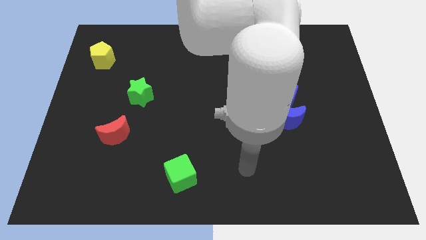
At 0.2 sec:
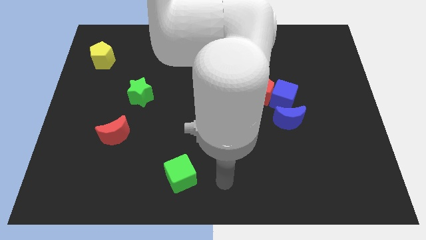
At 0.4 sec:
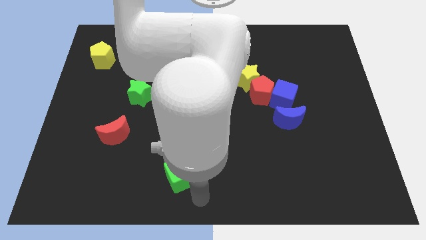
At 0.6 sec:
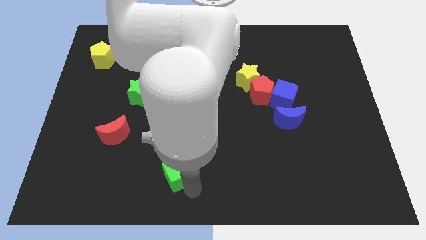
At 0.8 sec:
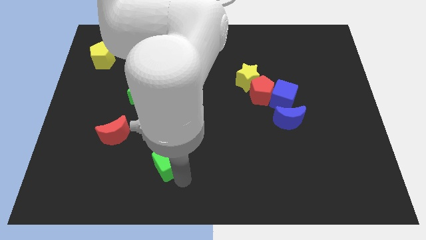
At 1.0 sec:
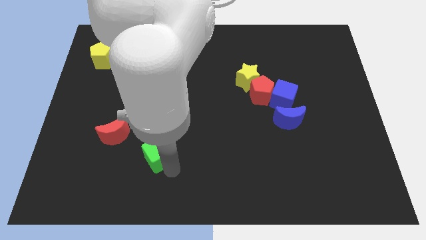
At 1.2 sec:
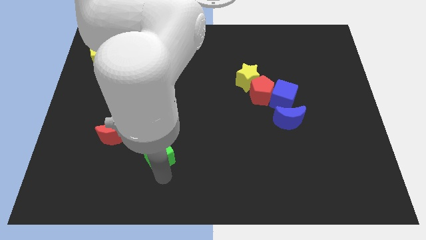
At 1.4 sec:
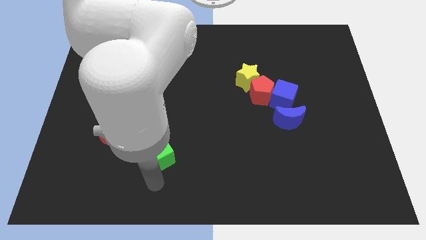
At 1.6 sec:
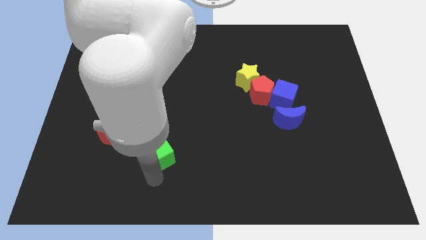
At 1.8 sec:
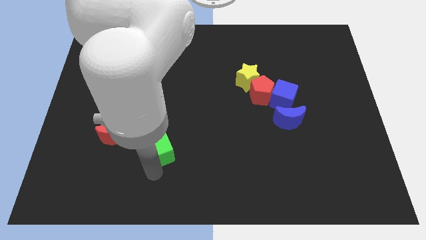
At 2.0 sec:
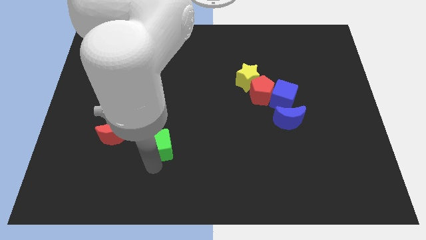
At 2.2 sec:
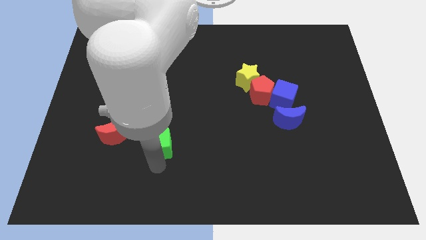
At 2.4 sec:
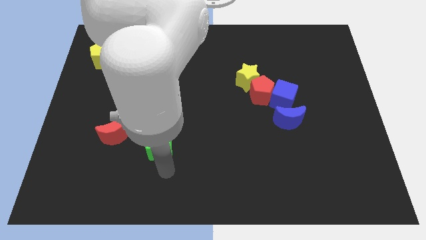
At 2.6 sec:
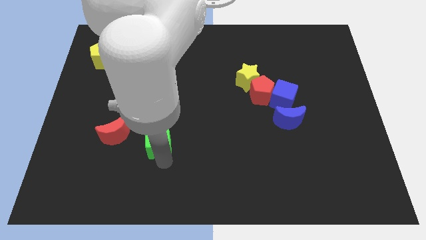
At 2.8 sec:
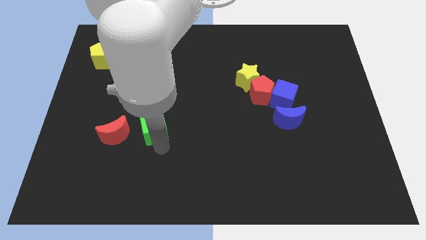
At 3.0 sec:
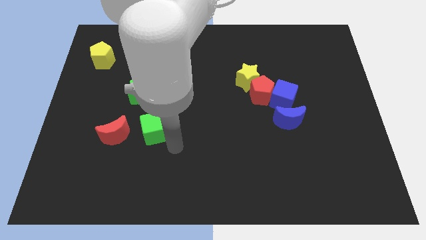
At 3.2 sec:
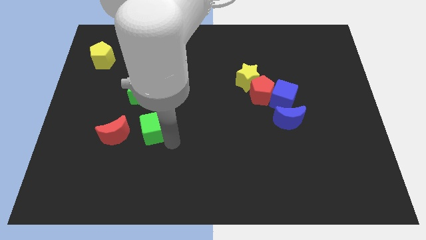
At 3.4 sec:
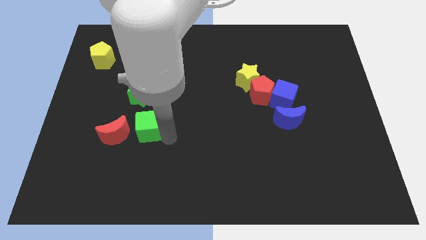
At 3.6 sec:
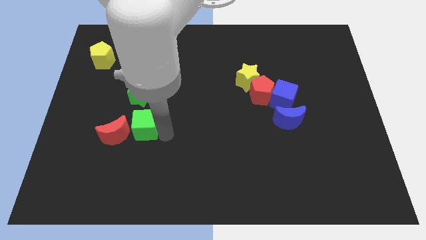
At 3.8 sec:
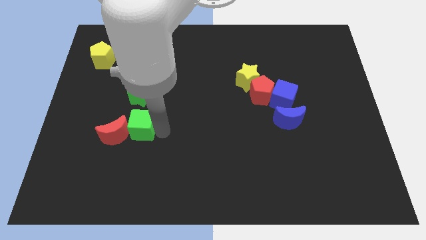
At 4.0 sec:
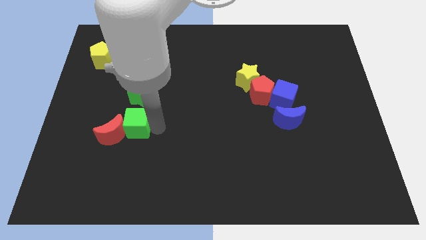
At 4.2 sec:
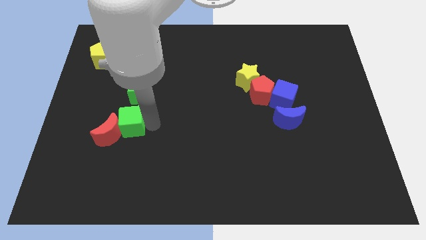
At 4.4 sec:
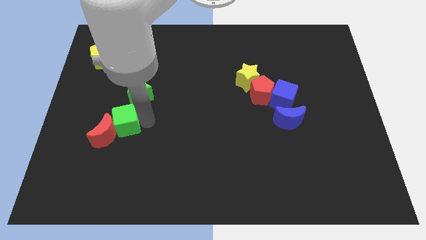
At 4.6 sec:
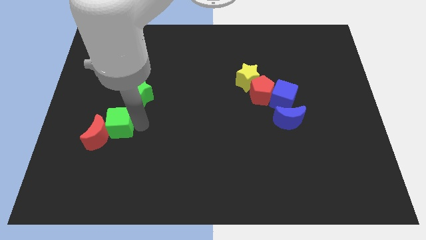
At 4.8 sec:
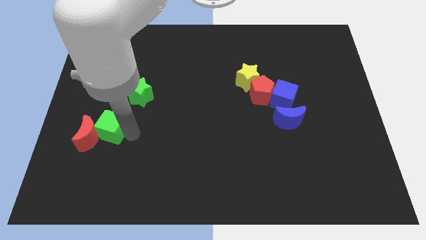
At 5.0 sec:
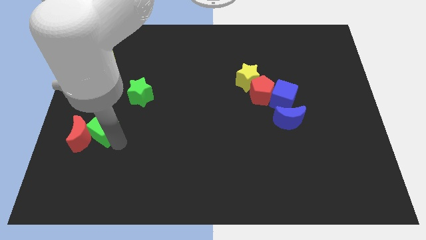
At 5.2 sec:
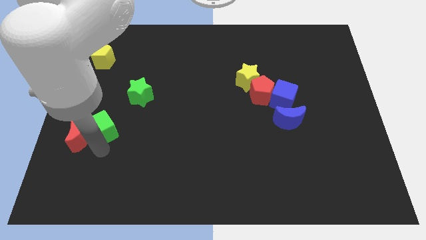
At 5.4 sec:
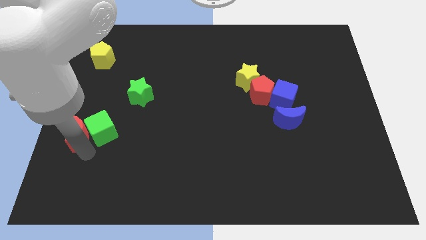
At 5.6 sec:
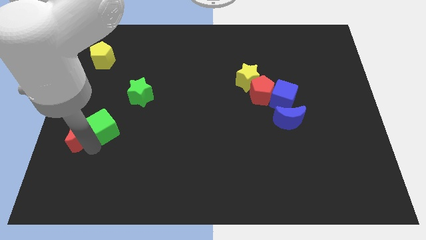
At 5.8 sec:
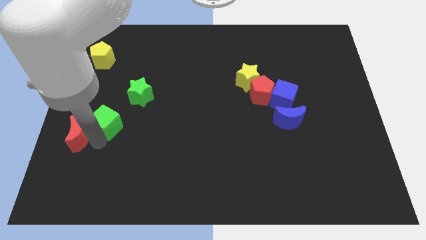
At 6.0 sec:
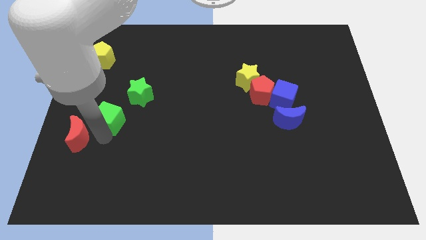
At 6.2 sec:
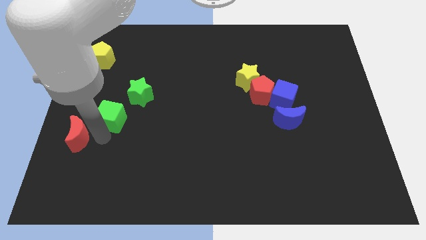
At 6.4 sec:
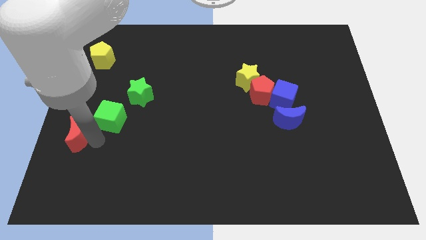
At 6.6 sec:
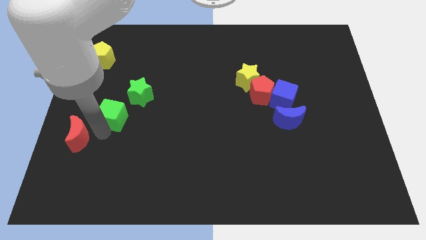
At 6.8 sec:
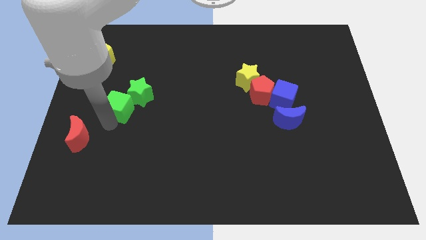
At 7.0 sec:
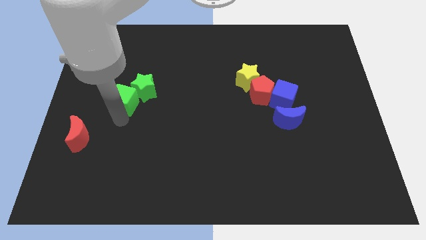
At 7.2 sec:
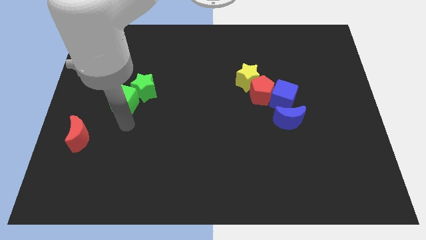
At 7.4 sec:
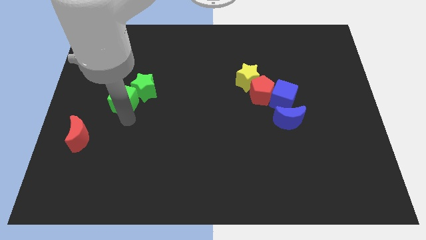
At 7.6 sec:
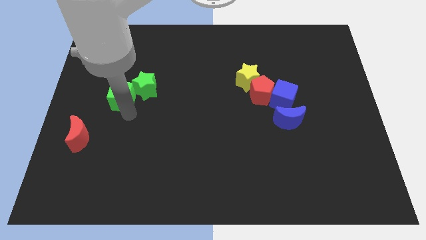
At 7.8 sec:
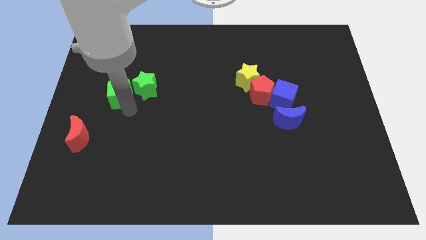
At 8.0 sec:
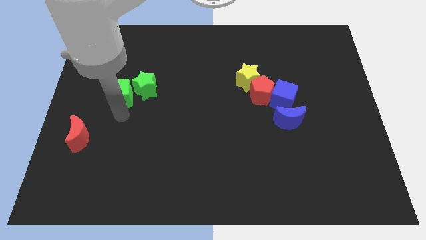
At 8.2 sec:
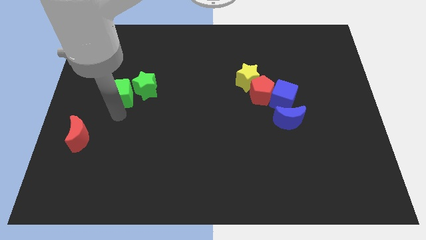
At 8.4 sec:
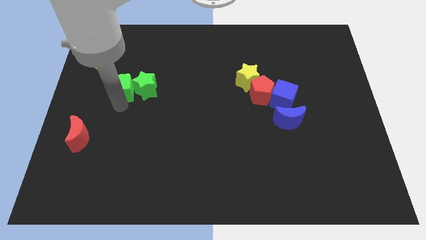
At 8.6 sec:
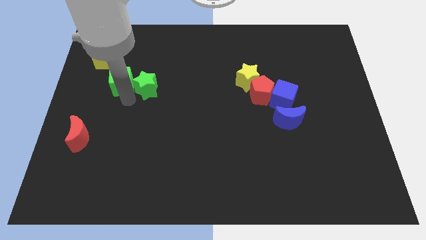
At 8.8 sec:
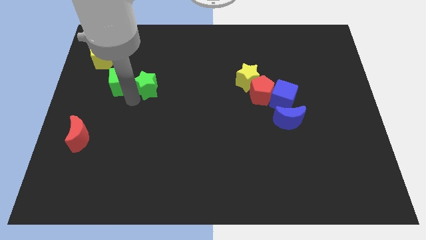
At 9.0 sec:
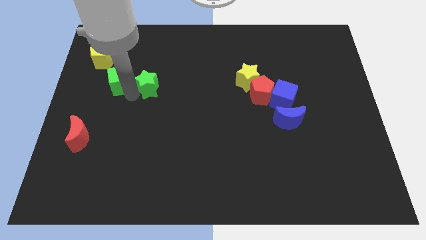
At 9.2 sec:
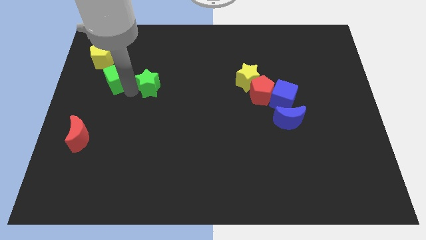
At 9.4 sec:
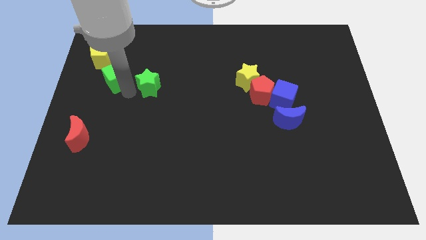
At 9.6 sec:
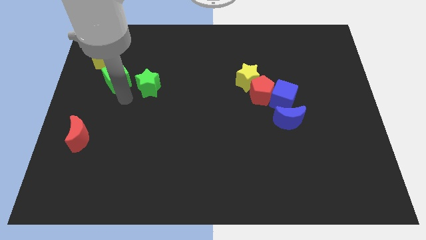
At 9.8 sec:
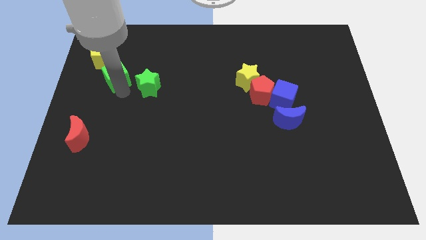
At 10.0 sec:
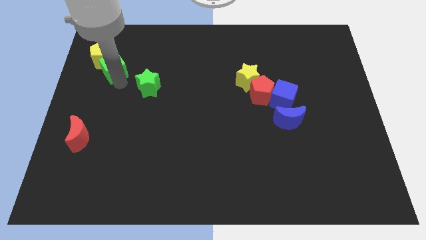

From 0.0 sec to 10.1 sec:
push the green cube close to the yellow pentagon

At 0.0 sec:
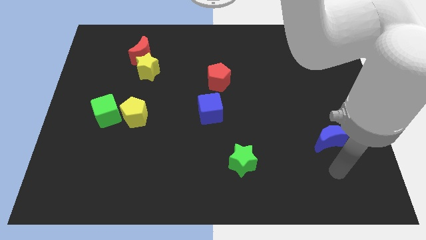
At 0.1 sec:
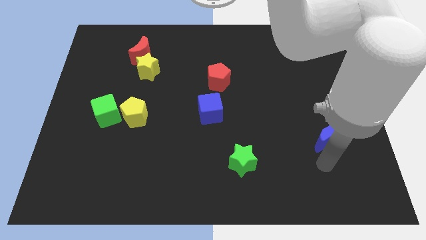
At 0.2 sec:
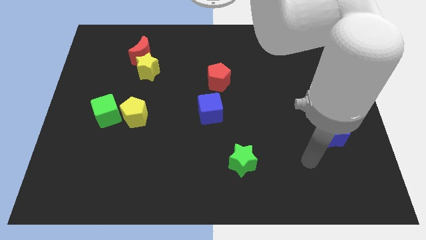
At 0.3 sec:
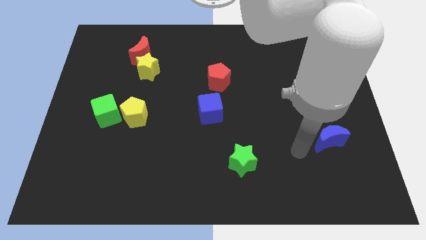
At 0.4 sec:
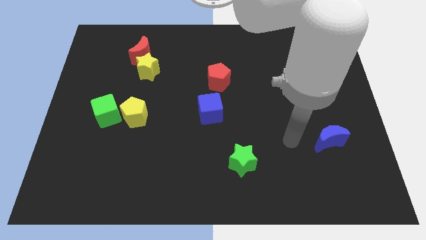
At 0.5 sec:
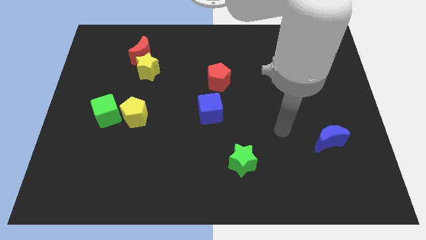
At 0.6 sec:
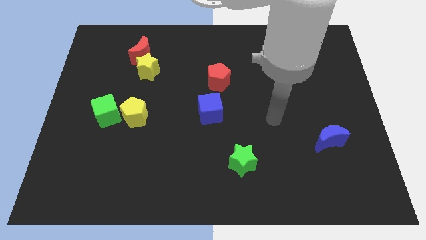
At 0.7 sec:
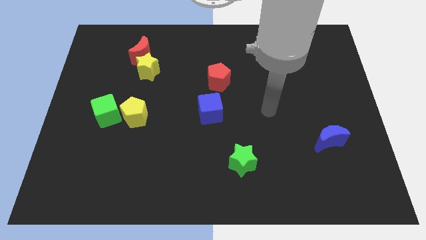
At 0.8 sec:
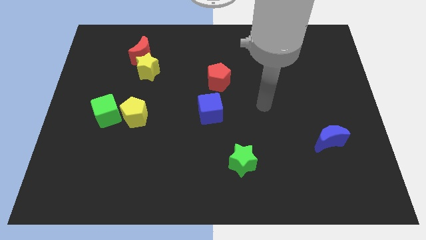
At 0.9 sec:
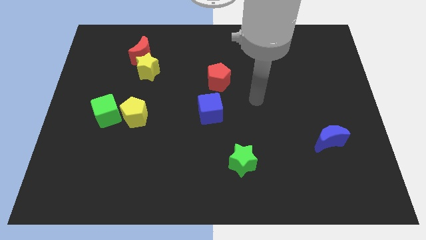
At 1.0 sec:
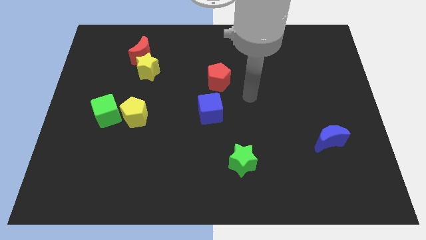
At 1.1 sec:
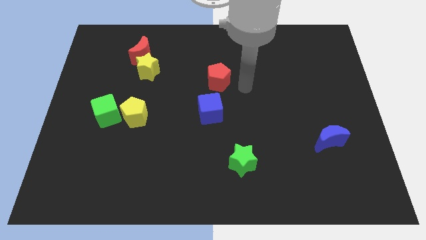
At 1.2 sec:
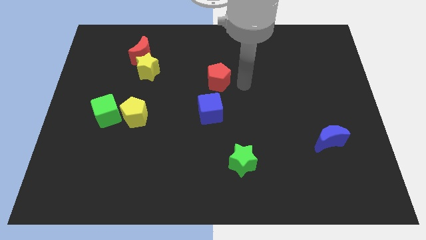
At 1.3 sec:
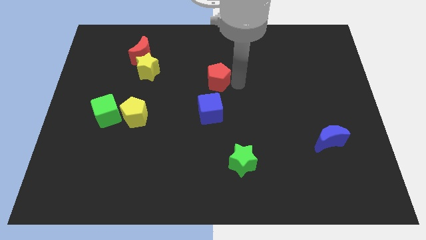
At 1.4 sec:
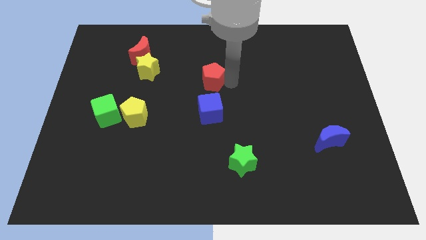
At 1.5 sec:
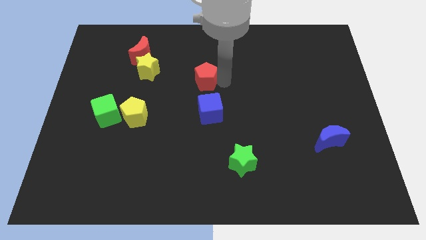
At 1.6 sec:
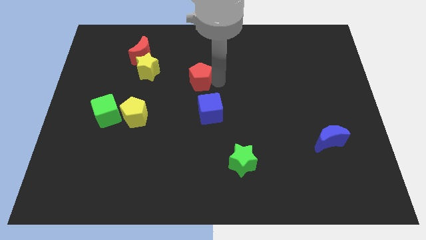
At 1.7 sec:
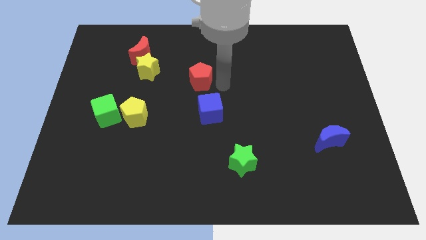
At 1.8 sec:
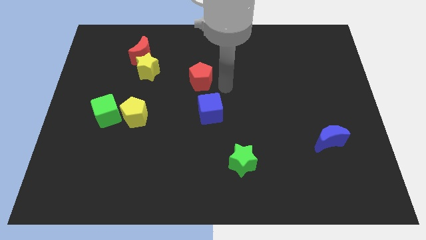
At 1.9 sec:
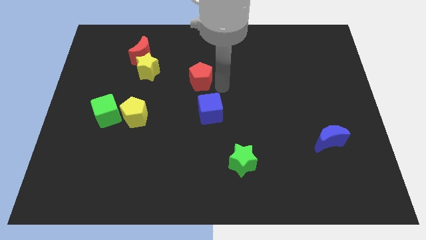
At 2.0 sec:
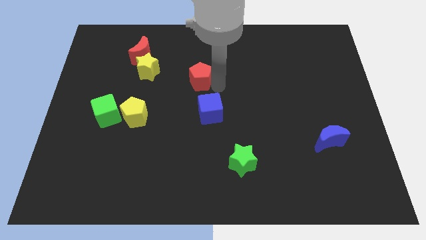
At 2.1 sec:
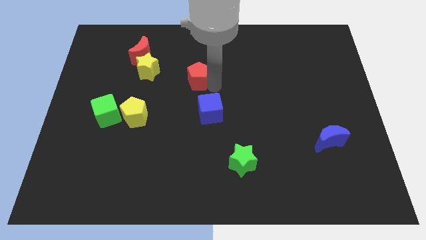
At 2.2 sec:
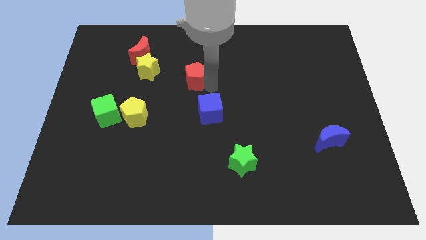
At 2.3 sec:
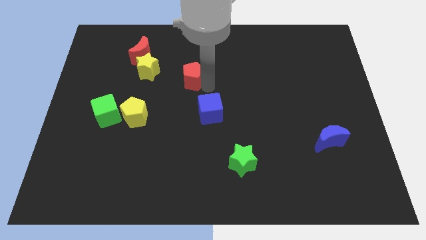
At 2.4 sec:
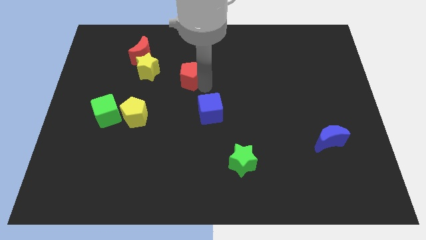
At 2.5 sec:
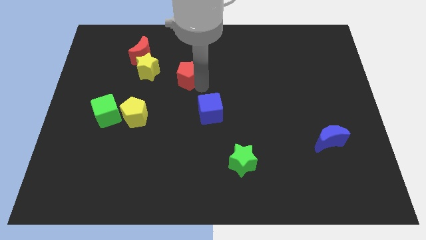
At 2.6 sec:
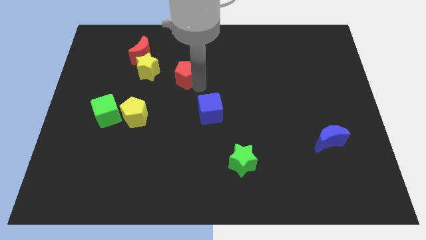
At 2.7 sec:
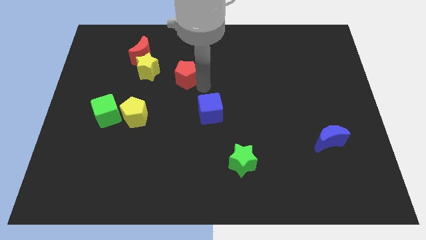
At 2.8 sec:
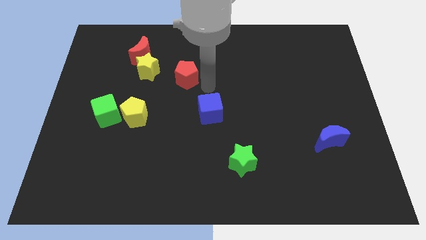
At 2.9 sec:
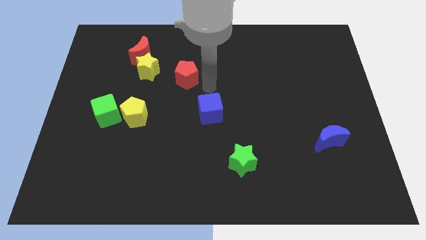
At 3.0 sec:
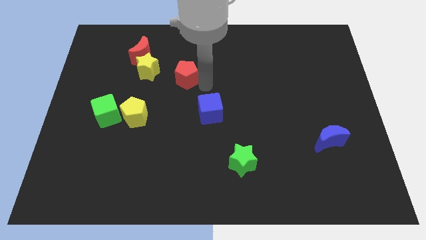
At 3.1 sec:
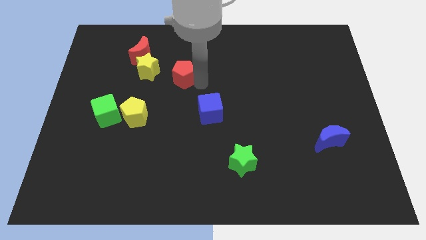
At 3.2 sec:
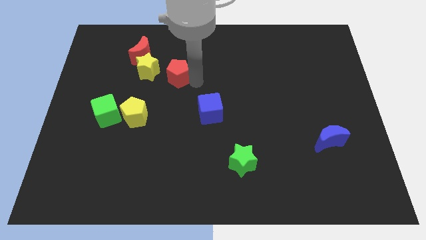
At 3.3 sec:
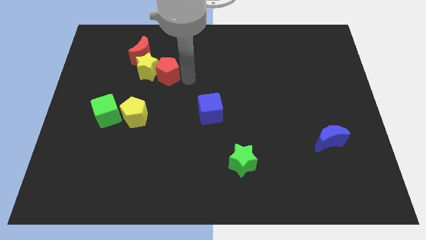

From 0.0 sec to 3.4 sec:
put the red pentagon next to the yellow star
